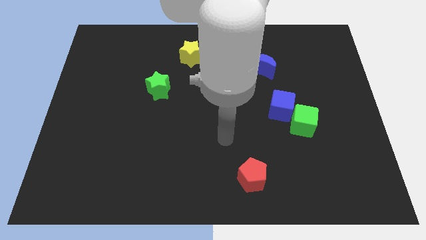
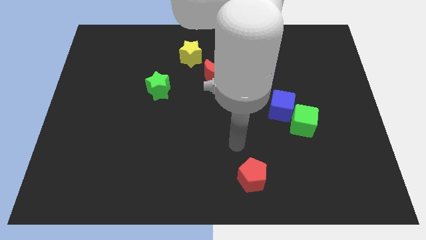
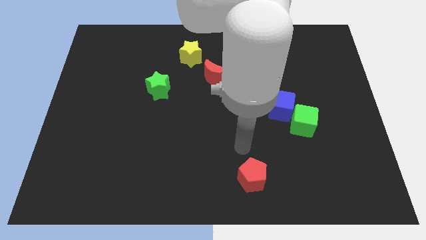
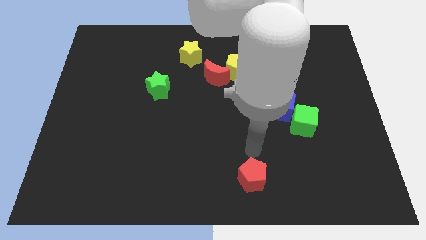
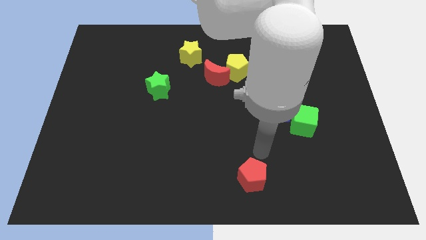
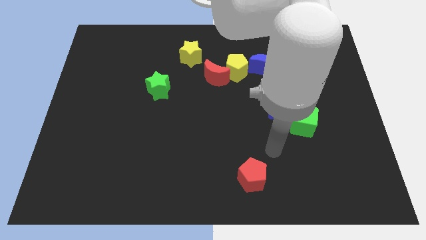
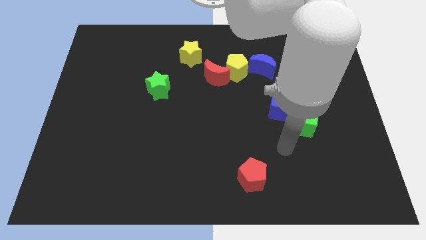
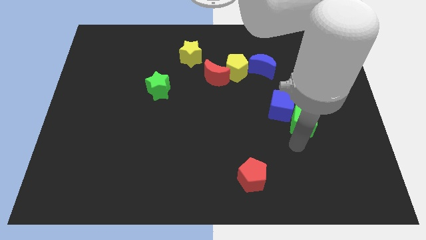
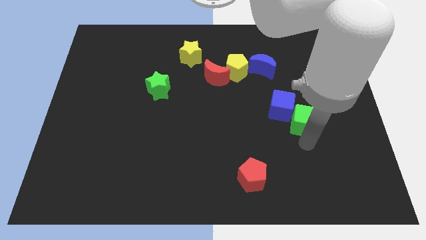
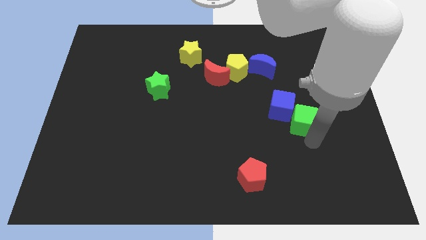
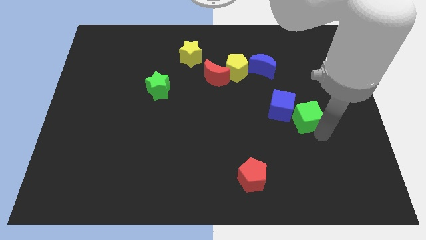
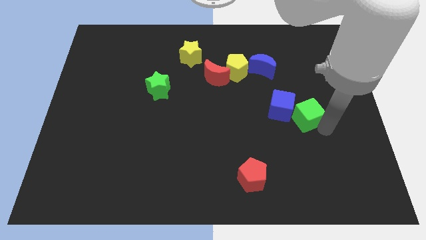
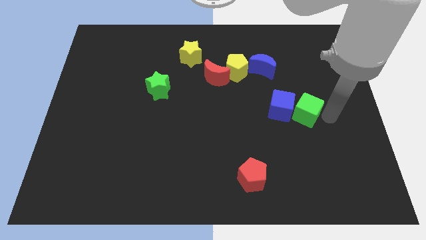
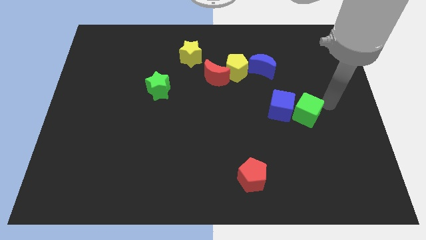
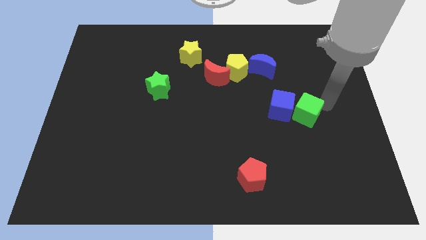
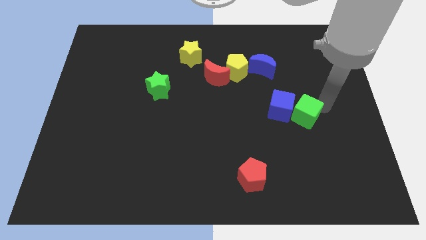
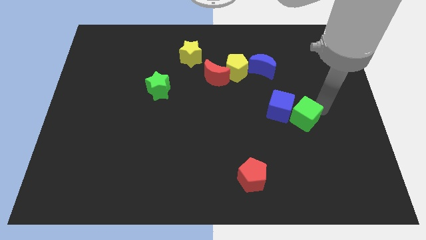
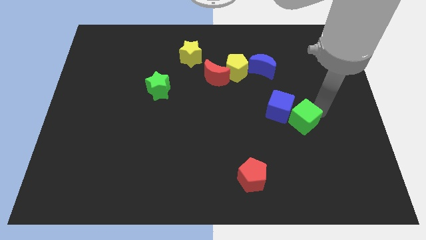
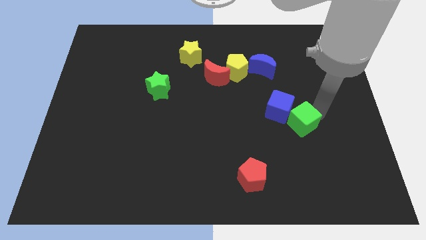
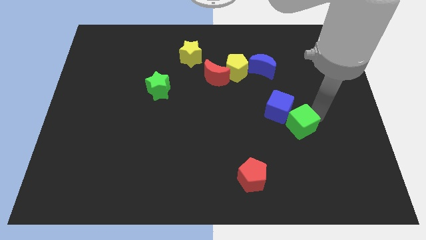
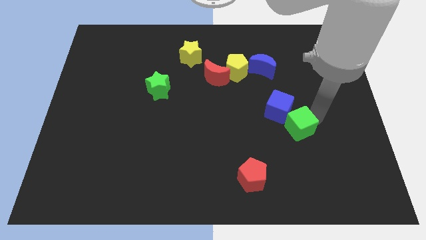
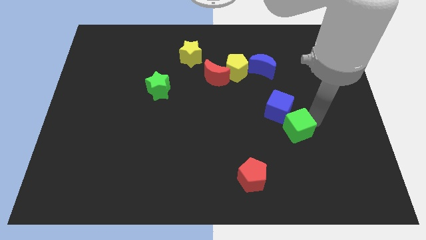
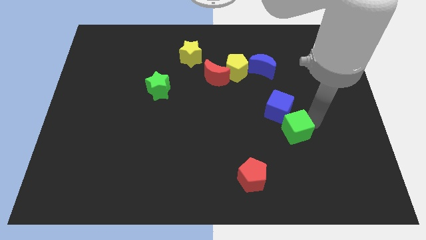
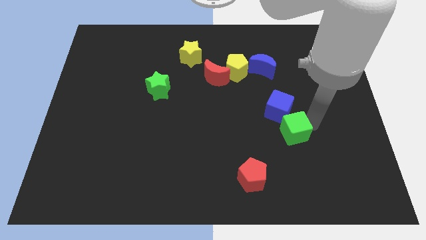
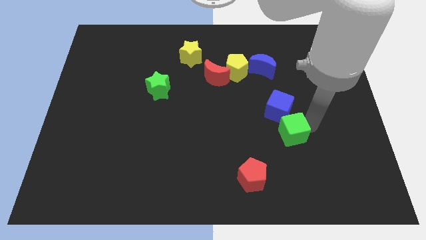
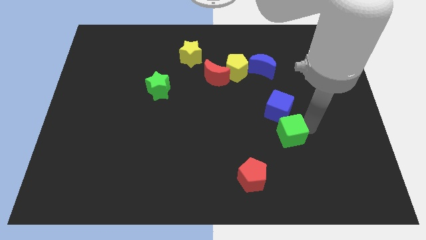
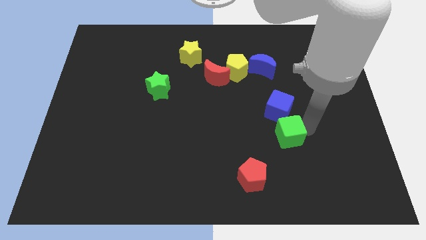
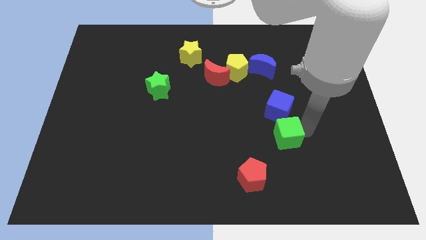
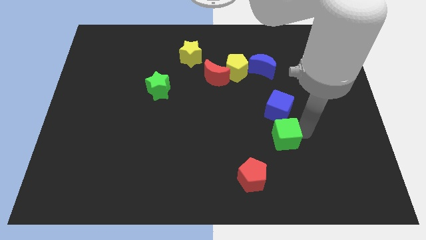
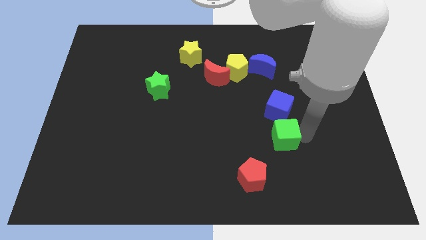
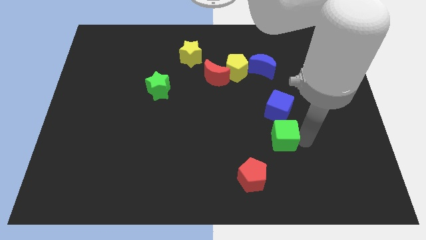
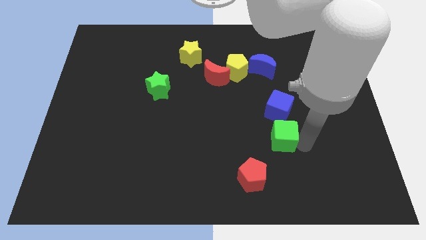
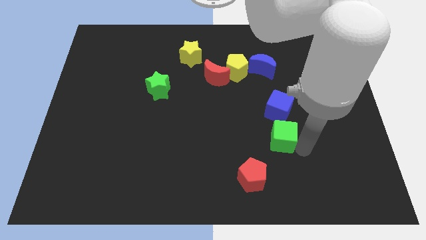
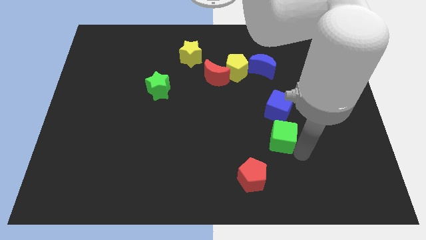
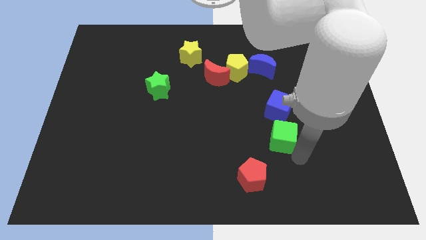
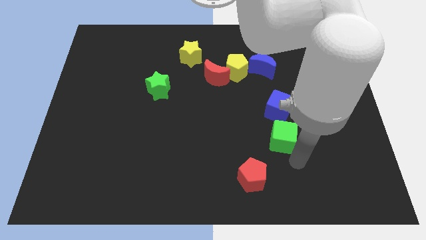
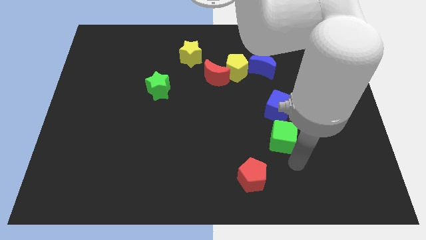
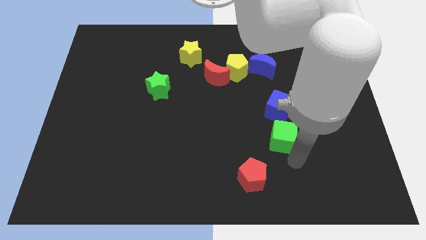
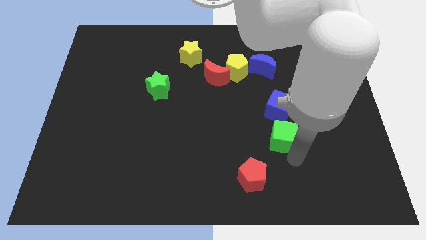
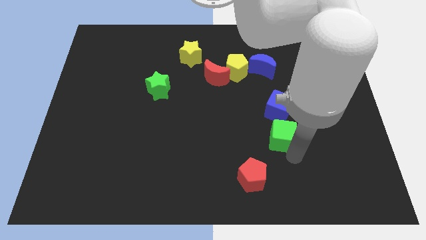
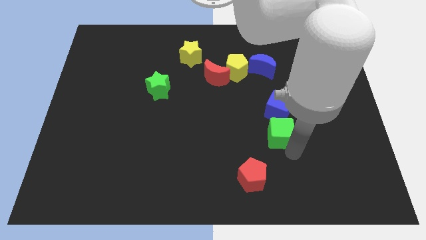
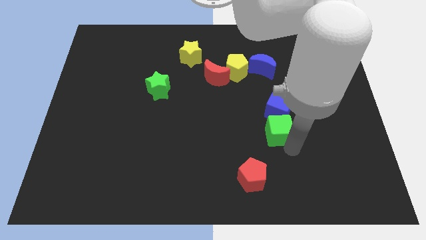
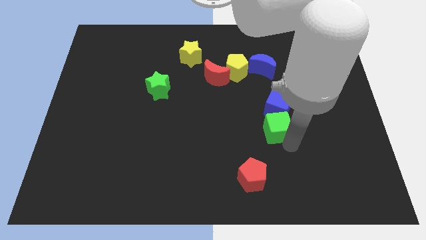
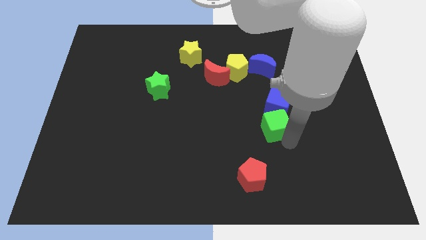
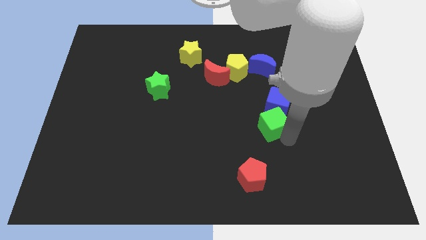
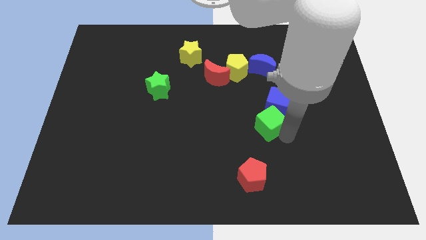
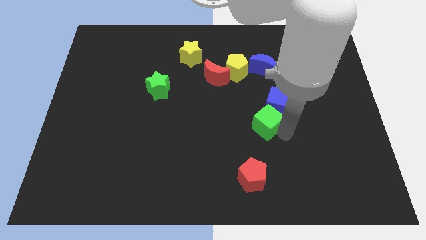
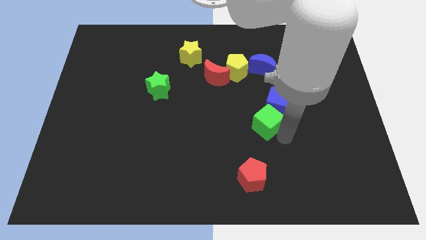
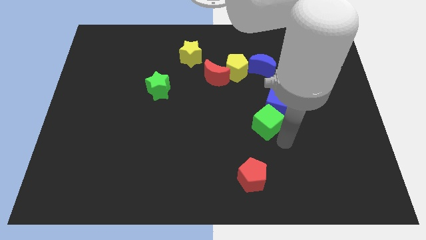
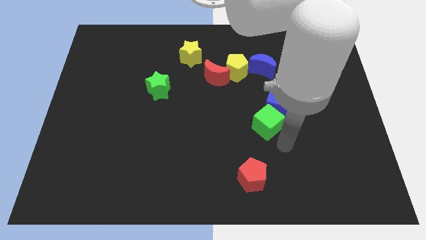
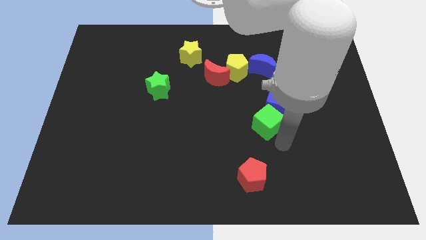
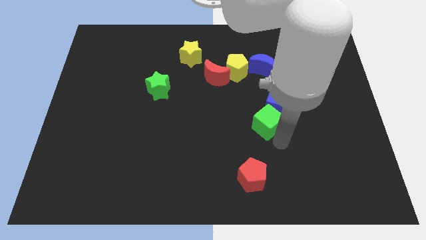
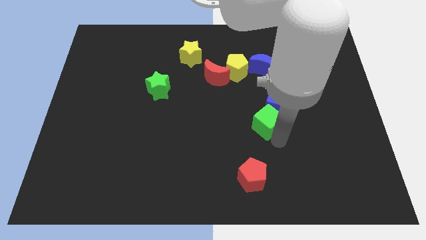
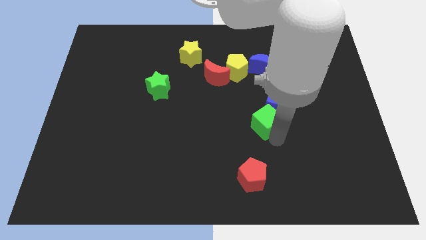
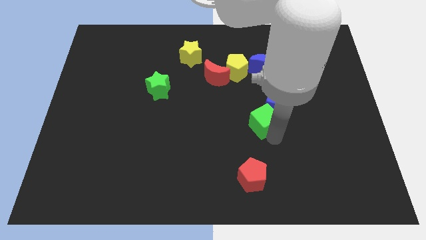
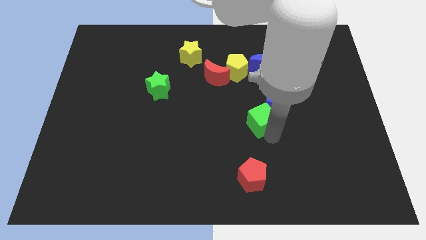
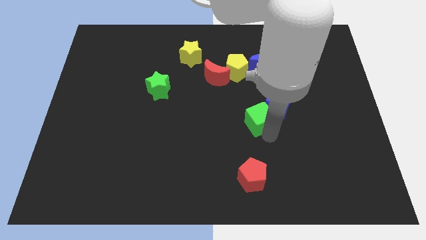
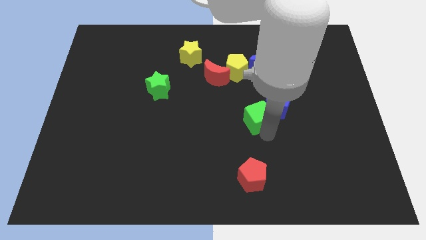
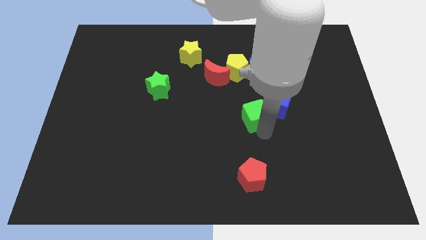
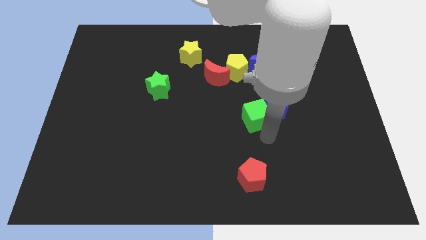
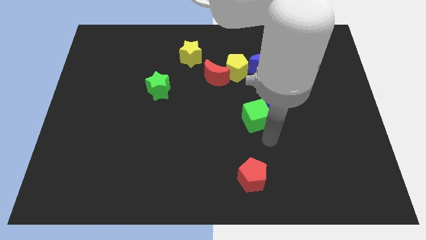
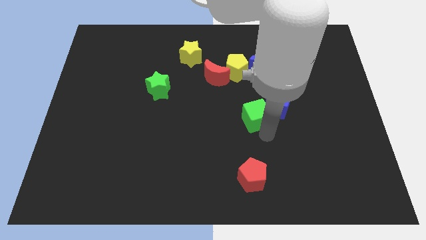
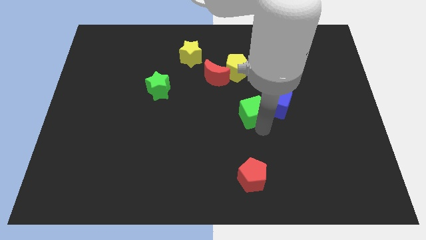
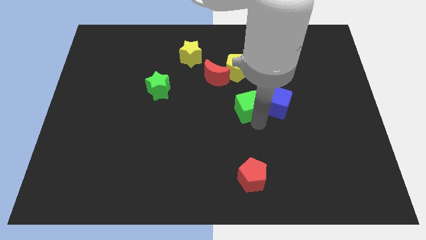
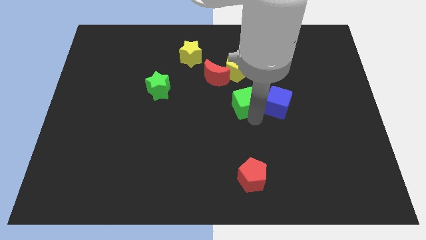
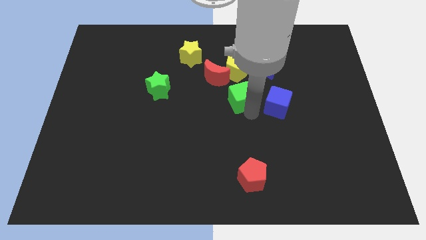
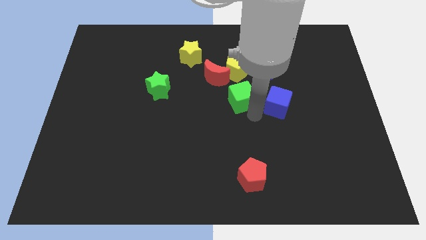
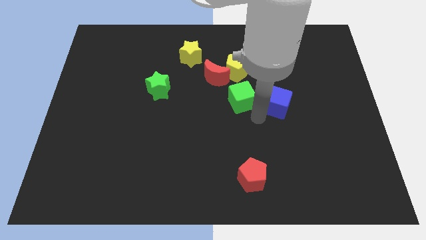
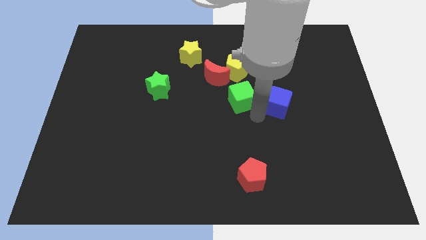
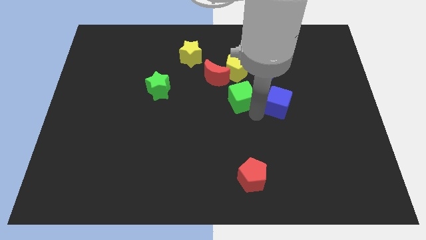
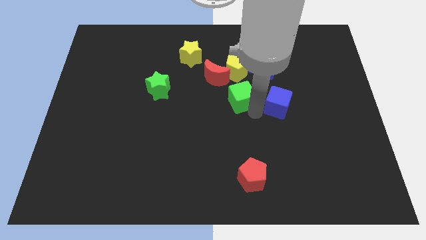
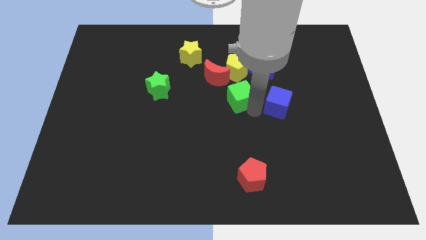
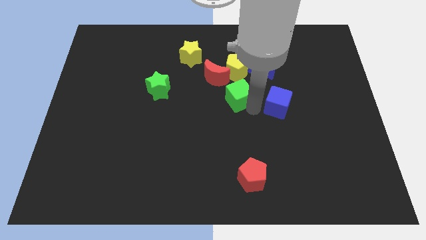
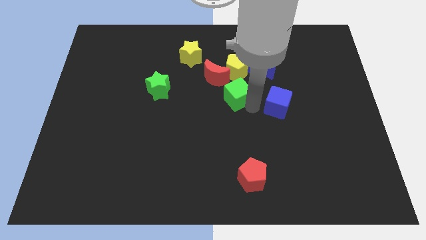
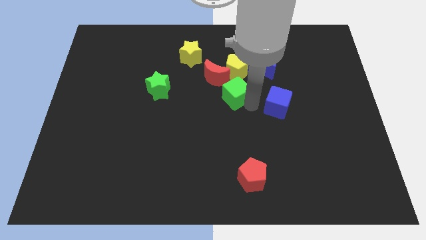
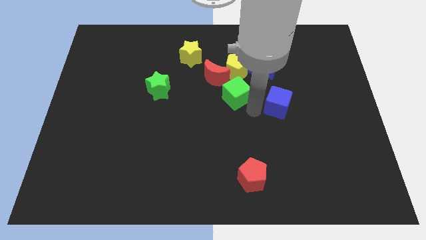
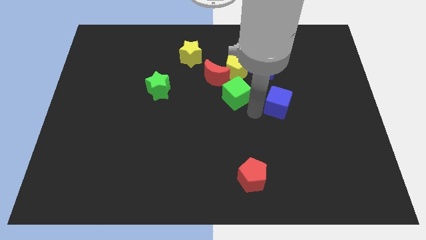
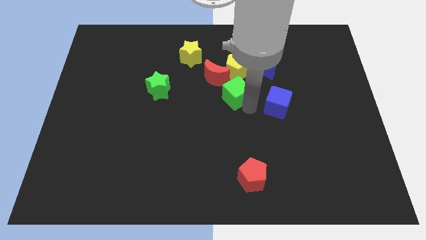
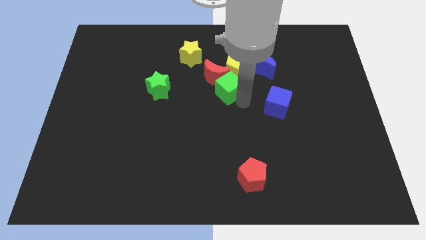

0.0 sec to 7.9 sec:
move the green cube close to the red moon
